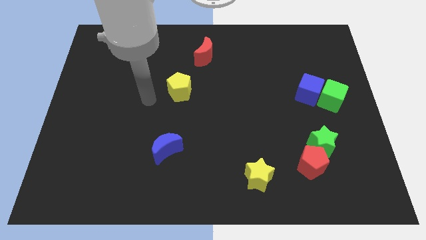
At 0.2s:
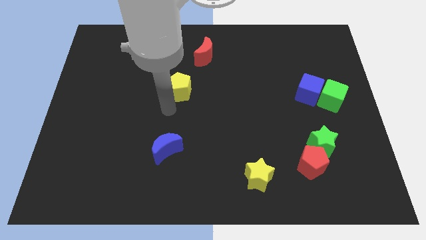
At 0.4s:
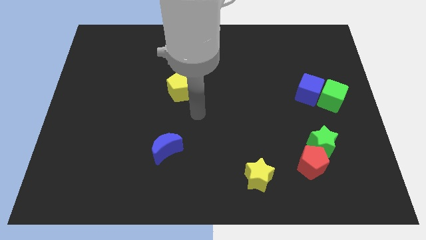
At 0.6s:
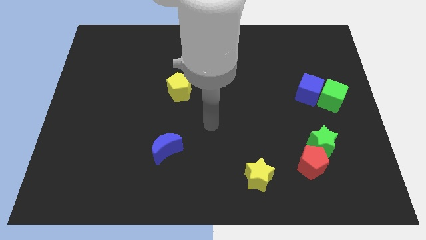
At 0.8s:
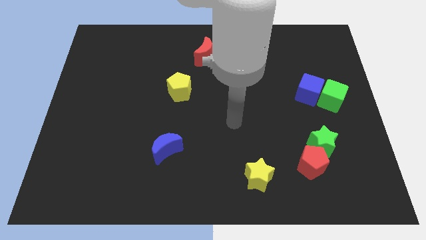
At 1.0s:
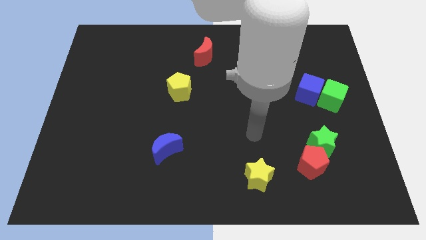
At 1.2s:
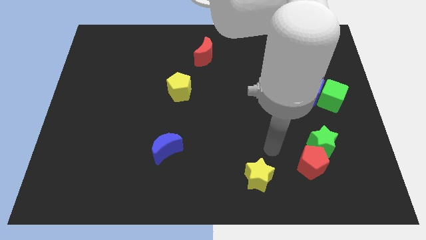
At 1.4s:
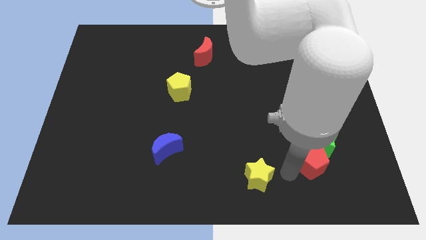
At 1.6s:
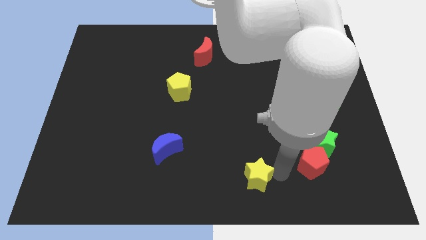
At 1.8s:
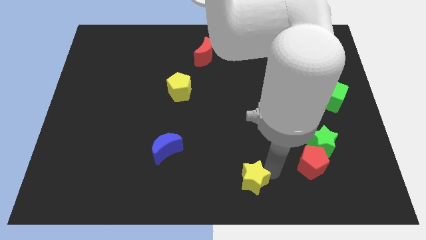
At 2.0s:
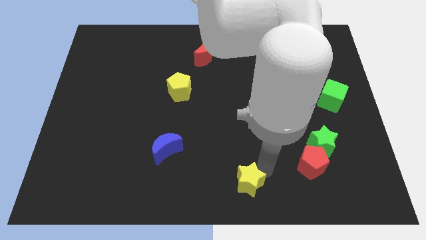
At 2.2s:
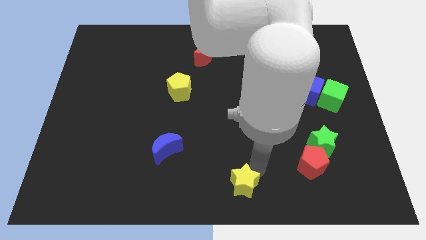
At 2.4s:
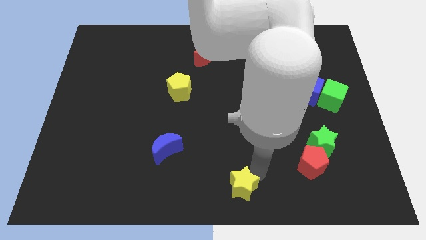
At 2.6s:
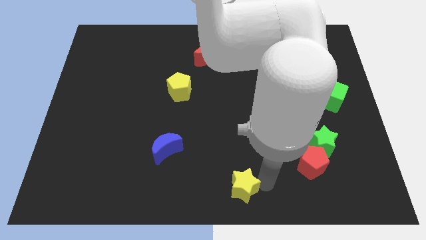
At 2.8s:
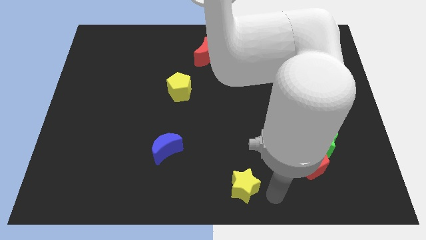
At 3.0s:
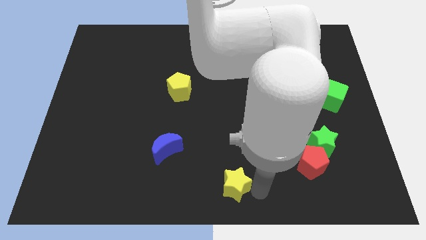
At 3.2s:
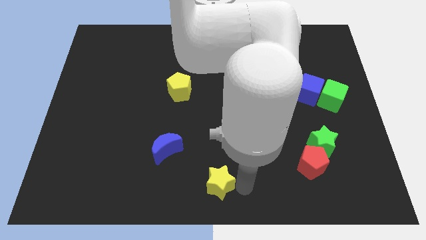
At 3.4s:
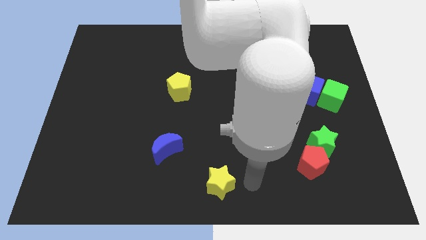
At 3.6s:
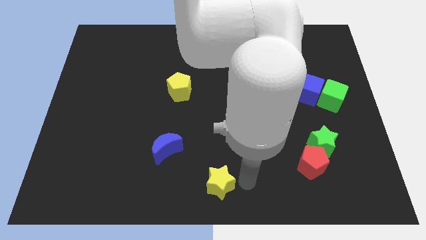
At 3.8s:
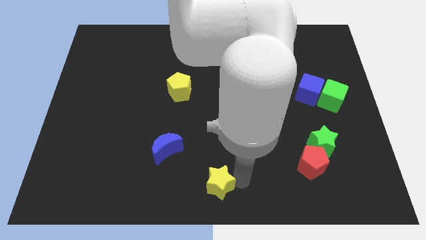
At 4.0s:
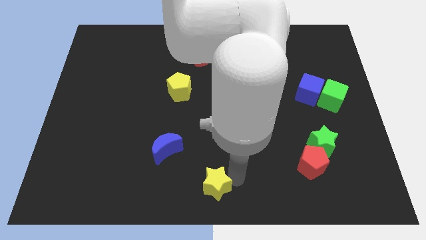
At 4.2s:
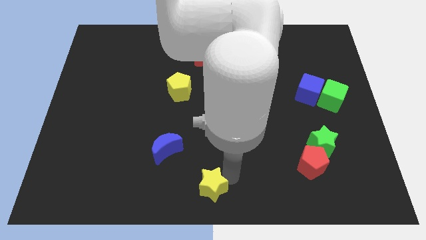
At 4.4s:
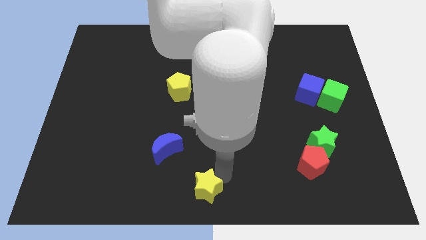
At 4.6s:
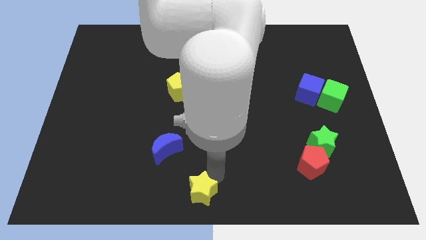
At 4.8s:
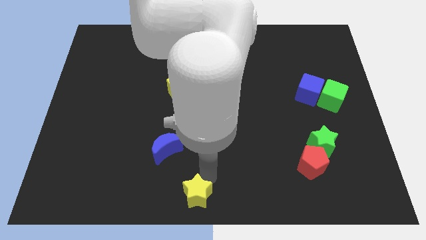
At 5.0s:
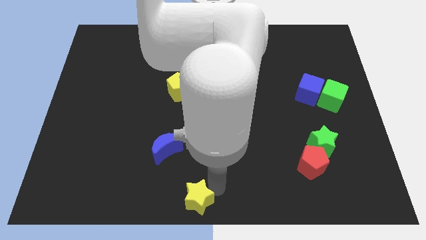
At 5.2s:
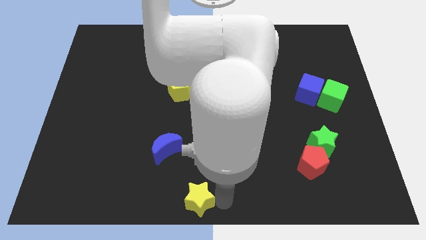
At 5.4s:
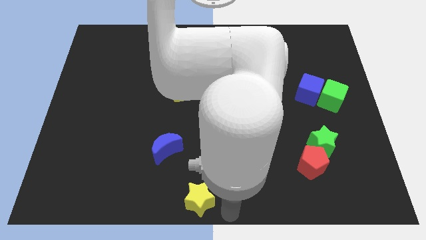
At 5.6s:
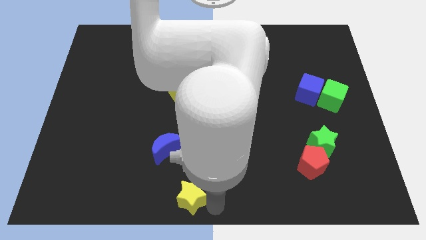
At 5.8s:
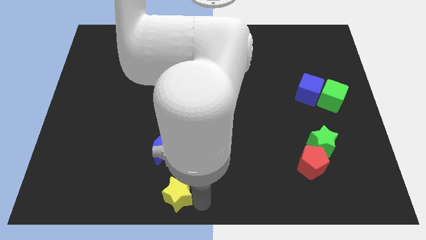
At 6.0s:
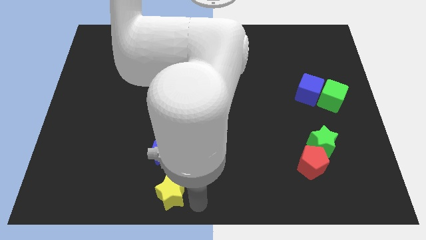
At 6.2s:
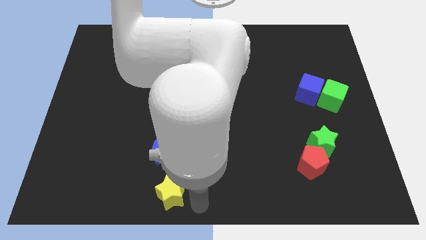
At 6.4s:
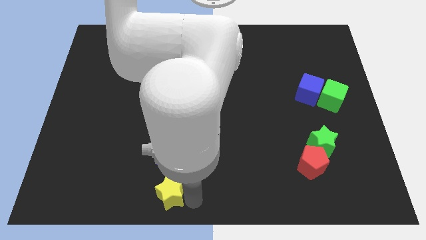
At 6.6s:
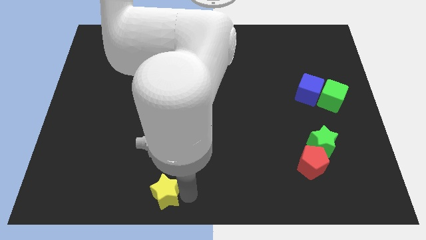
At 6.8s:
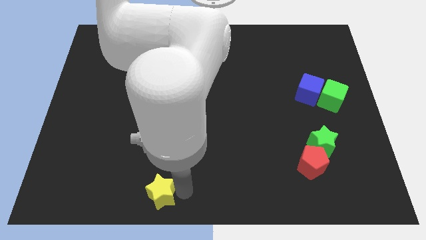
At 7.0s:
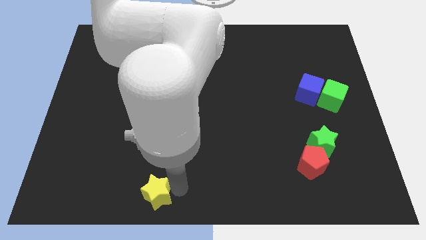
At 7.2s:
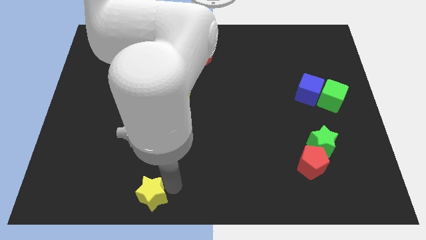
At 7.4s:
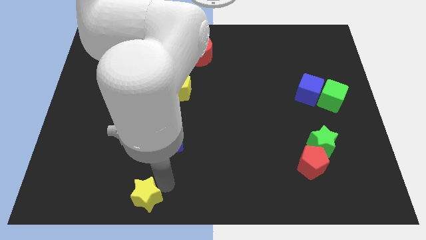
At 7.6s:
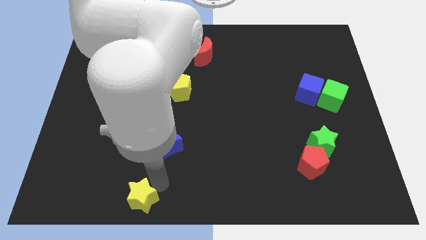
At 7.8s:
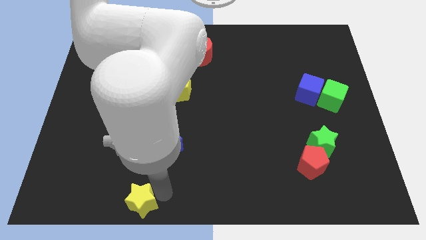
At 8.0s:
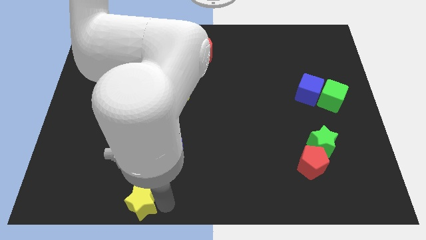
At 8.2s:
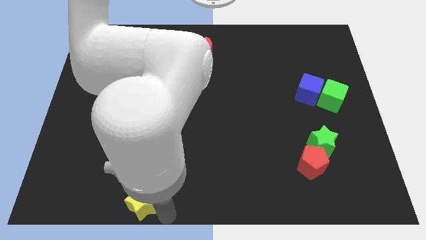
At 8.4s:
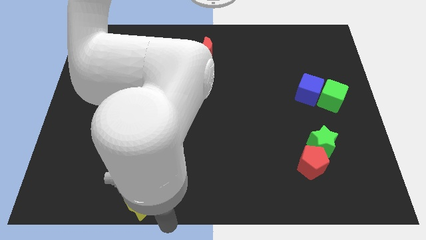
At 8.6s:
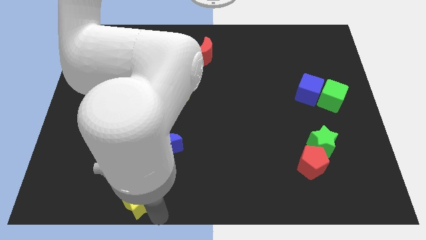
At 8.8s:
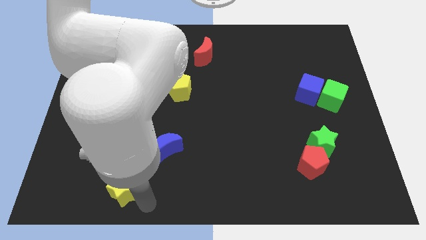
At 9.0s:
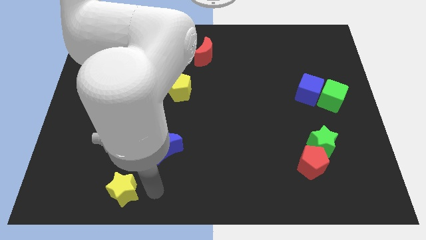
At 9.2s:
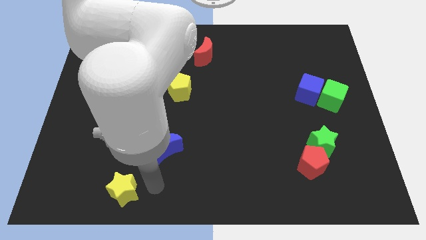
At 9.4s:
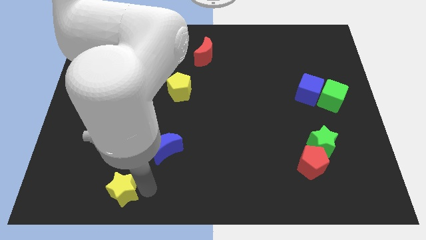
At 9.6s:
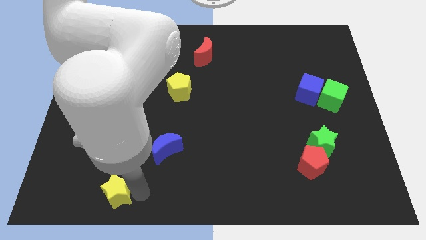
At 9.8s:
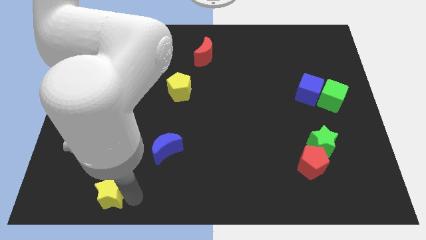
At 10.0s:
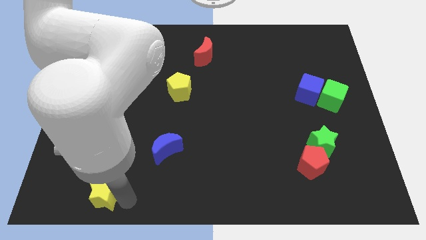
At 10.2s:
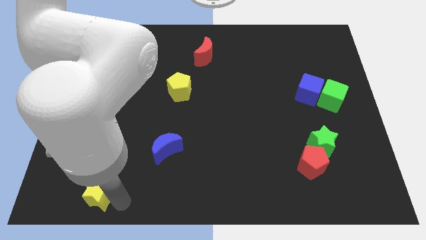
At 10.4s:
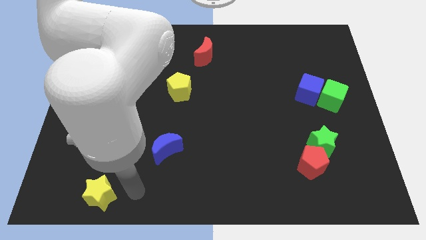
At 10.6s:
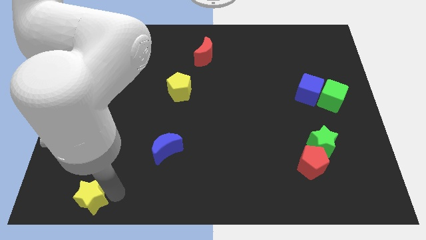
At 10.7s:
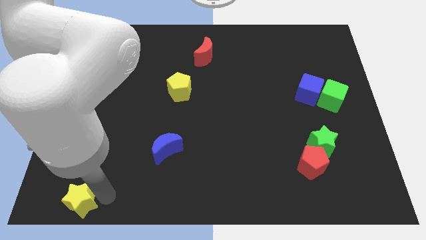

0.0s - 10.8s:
push the yellow star to the bottom left of the board

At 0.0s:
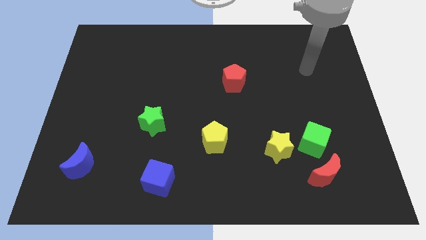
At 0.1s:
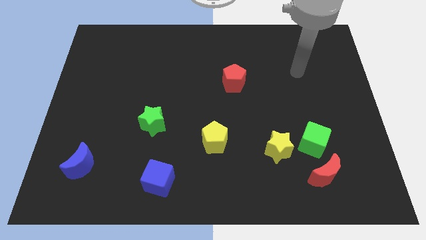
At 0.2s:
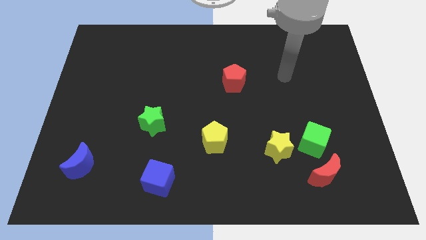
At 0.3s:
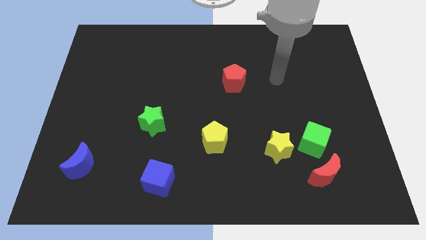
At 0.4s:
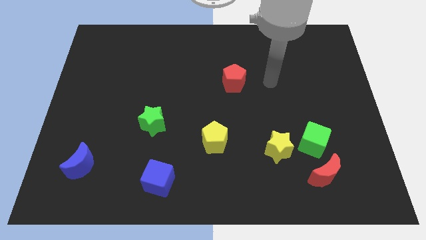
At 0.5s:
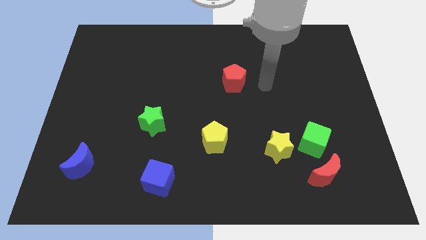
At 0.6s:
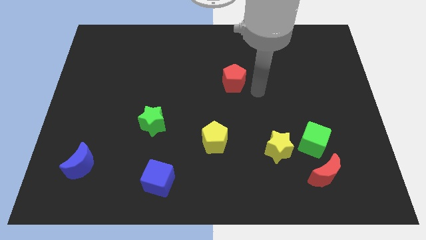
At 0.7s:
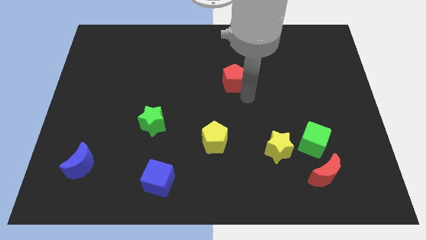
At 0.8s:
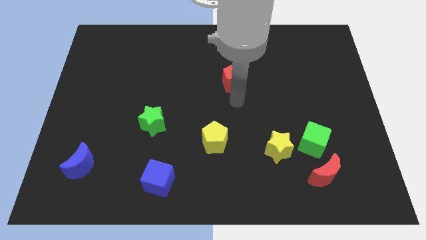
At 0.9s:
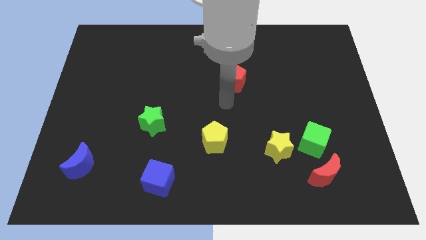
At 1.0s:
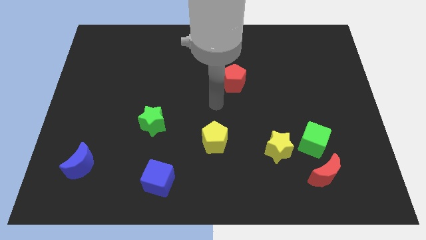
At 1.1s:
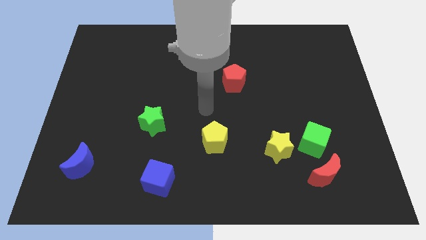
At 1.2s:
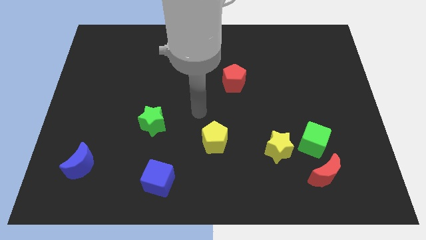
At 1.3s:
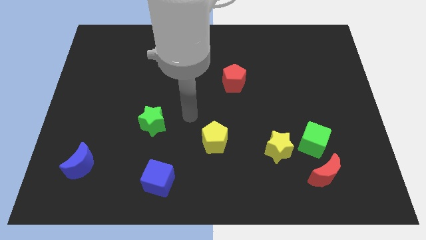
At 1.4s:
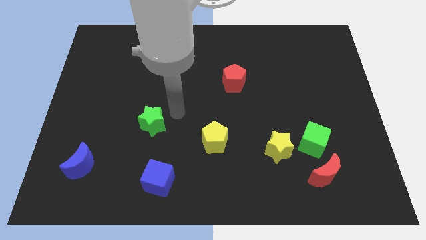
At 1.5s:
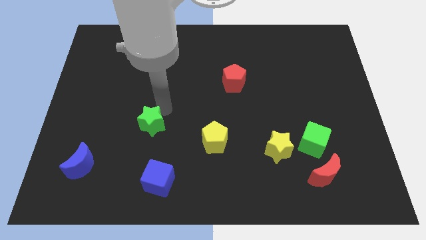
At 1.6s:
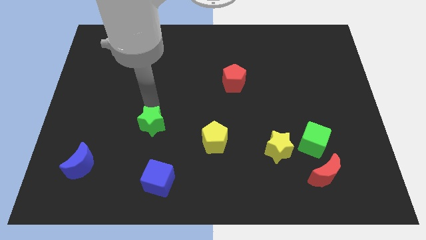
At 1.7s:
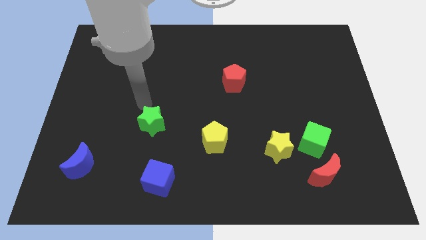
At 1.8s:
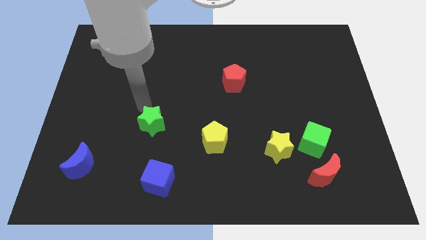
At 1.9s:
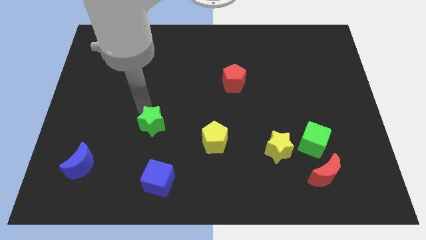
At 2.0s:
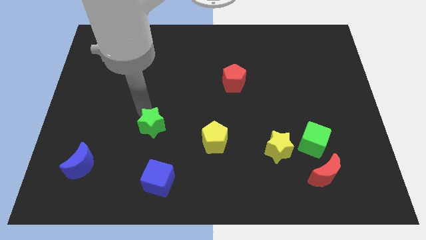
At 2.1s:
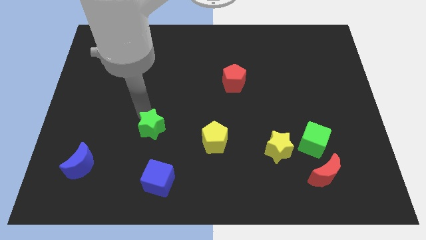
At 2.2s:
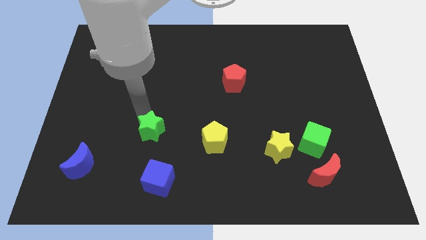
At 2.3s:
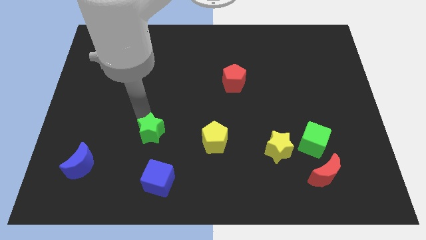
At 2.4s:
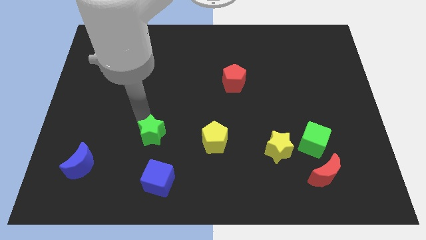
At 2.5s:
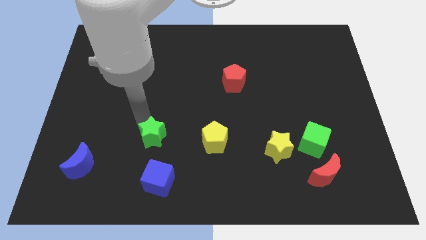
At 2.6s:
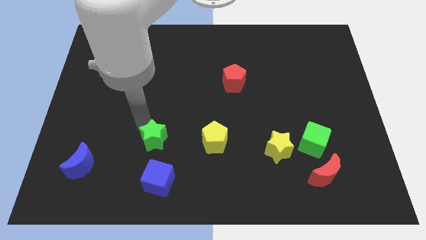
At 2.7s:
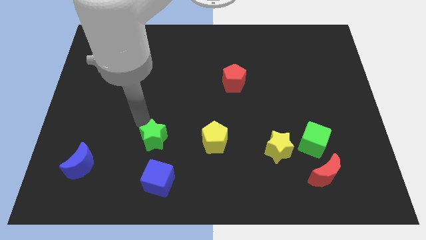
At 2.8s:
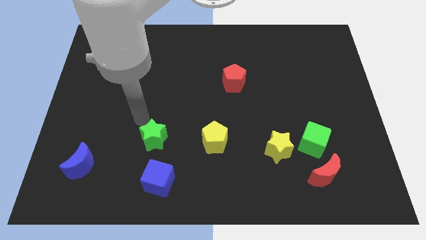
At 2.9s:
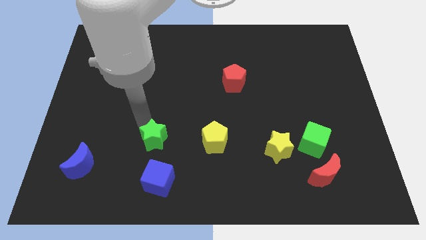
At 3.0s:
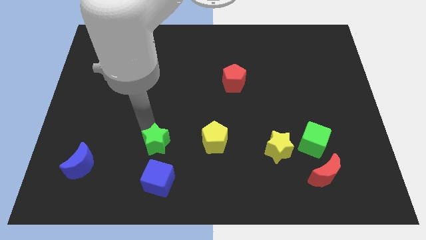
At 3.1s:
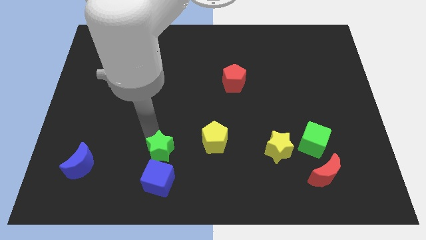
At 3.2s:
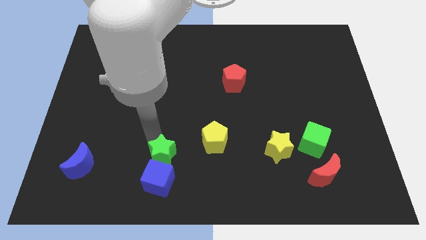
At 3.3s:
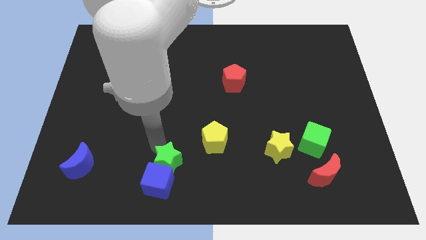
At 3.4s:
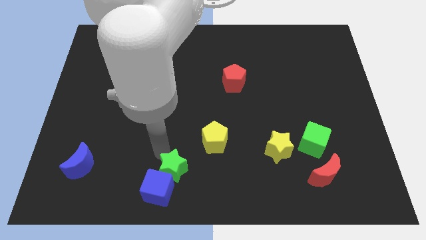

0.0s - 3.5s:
put the green star to the bottom
